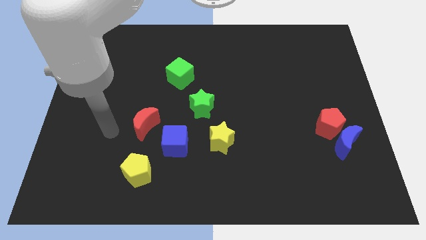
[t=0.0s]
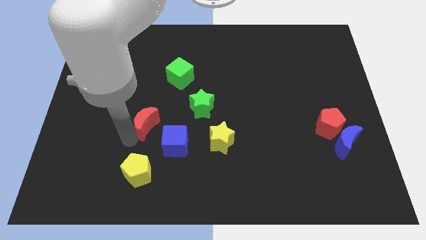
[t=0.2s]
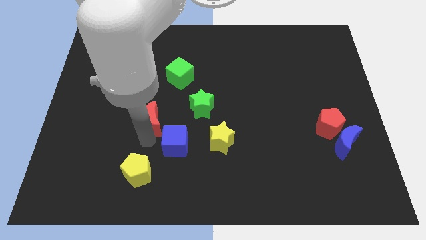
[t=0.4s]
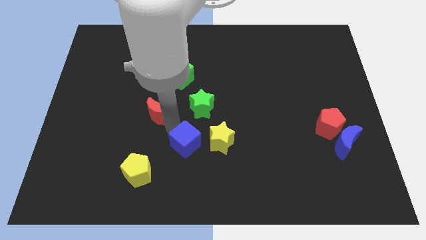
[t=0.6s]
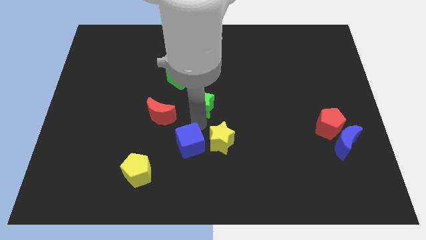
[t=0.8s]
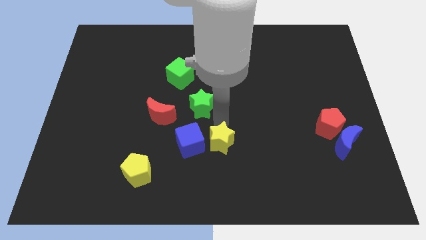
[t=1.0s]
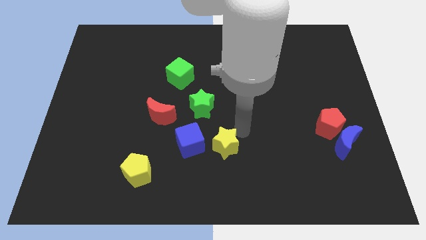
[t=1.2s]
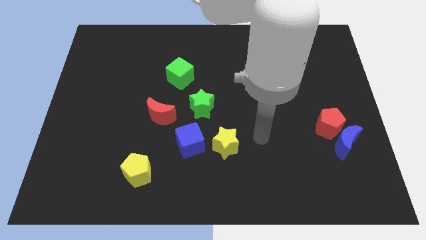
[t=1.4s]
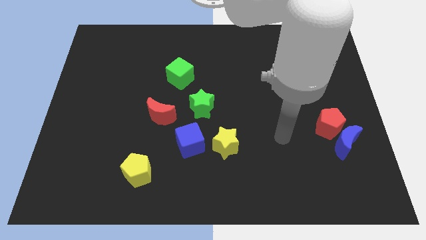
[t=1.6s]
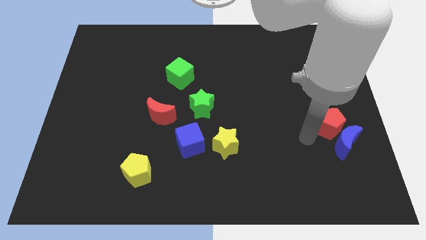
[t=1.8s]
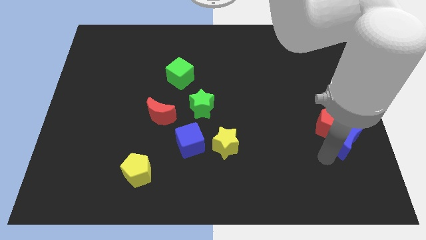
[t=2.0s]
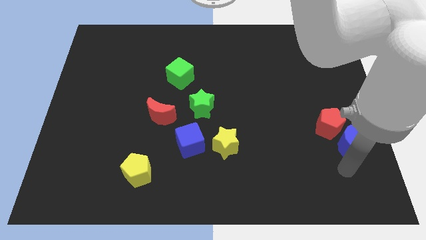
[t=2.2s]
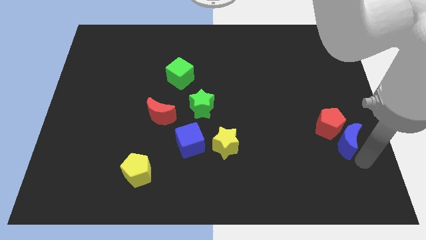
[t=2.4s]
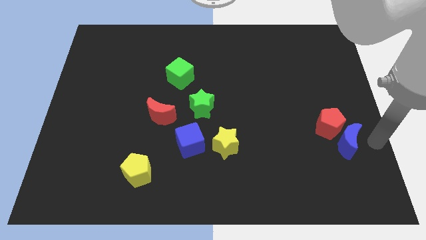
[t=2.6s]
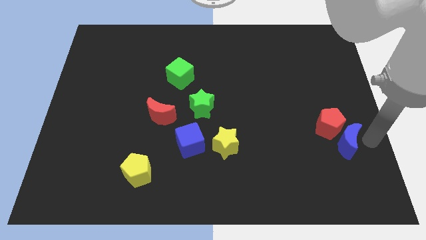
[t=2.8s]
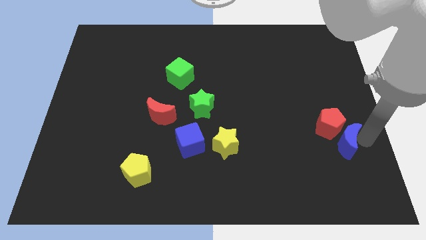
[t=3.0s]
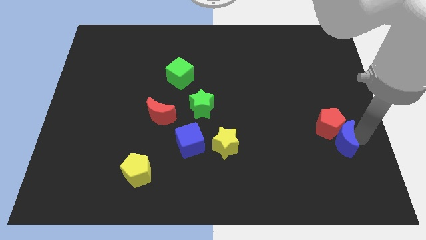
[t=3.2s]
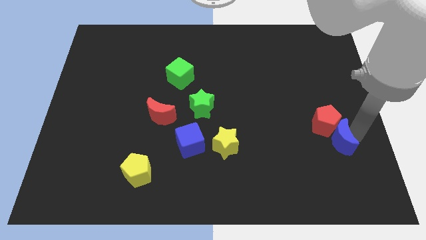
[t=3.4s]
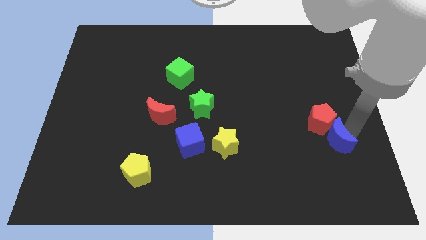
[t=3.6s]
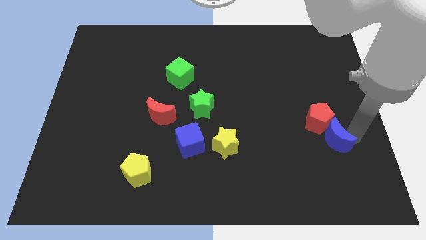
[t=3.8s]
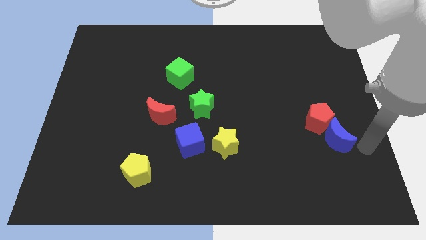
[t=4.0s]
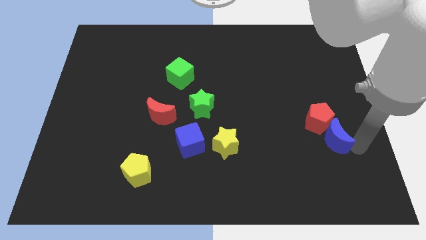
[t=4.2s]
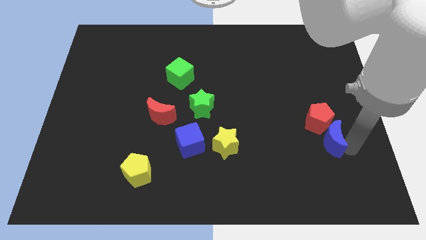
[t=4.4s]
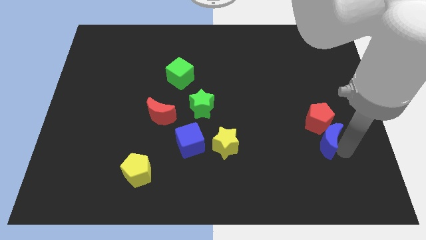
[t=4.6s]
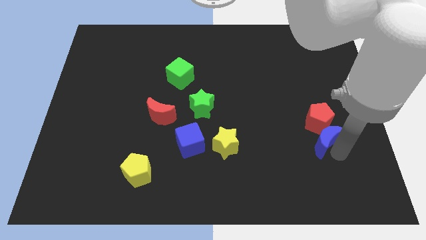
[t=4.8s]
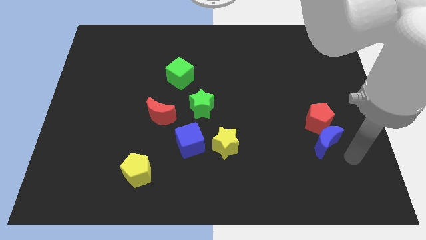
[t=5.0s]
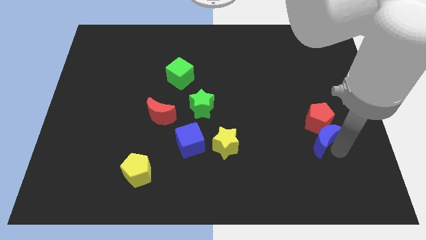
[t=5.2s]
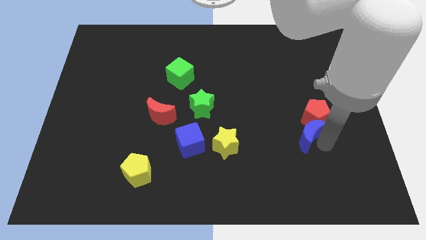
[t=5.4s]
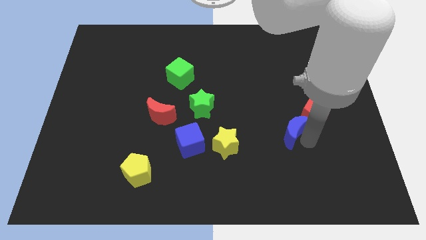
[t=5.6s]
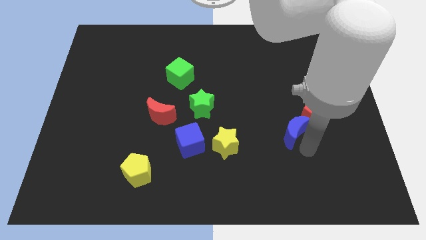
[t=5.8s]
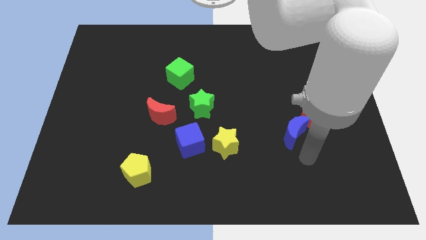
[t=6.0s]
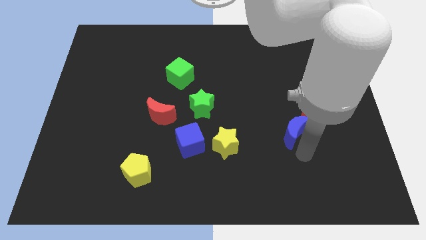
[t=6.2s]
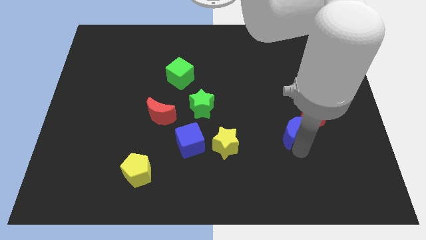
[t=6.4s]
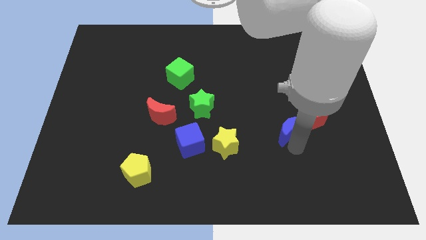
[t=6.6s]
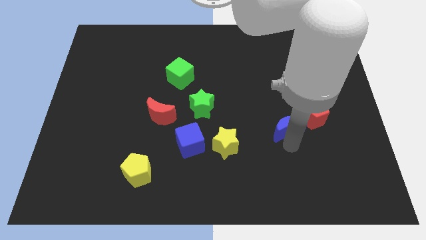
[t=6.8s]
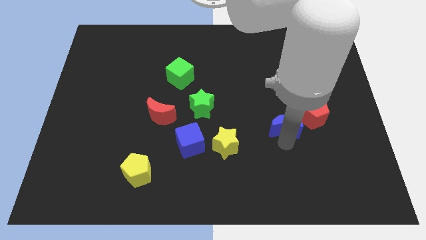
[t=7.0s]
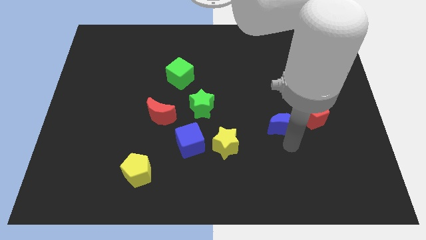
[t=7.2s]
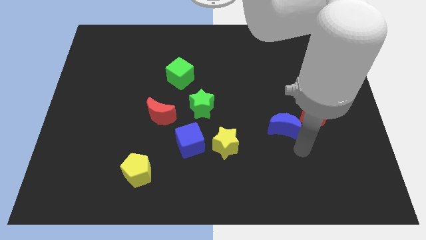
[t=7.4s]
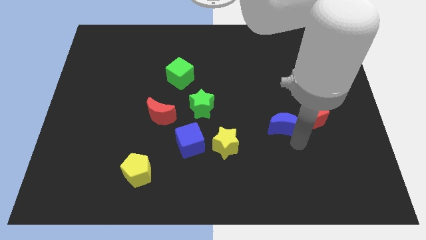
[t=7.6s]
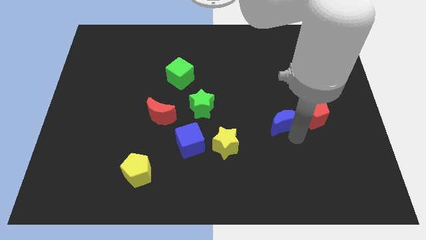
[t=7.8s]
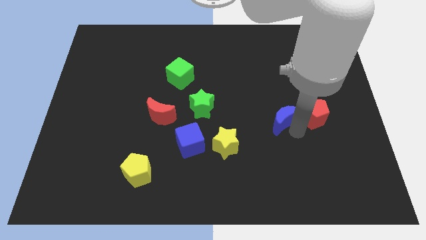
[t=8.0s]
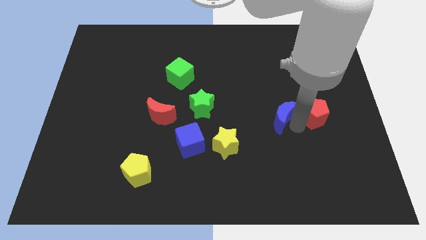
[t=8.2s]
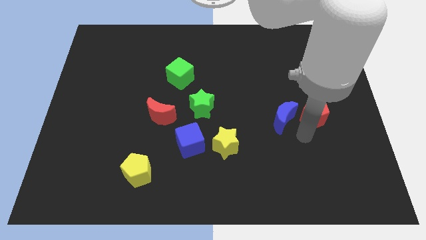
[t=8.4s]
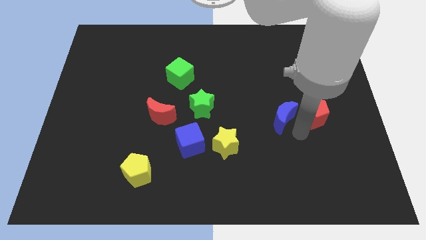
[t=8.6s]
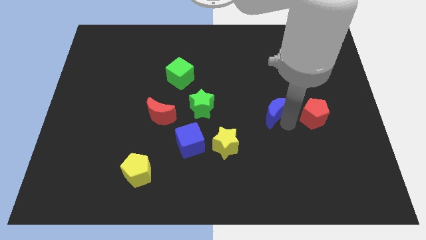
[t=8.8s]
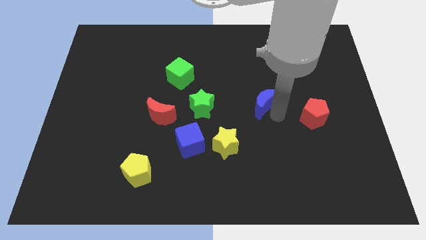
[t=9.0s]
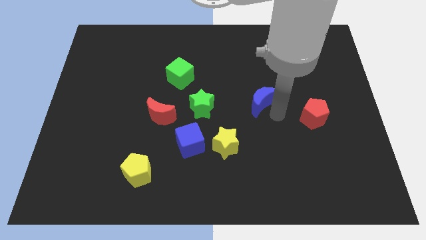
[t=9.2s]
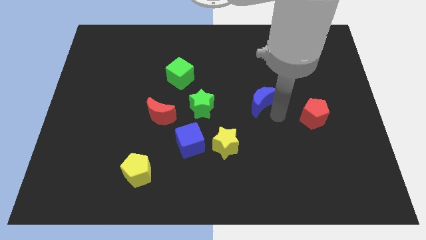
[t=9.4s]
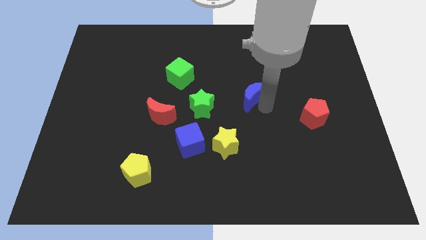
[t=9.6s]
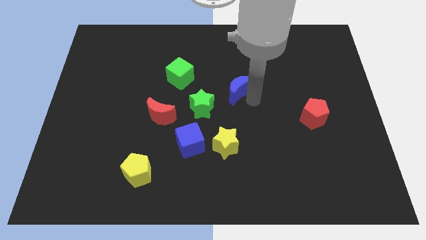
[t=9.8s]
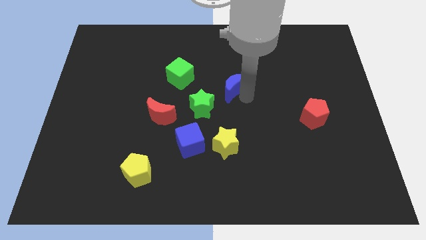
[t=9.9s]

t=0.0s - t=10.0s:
push the blue moon to the right side of the green cube

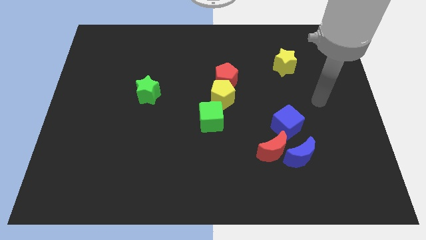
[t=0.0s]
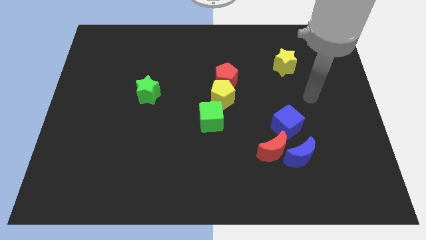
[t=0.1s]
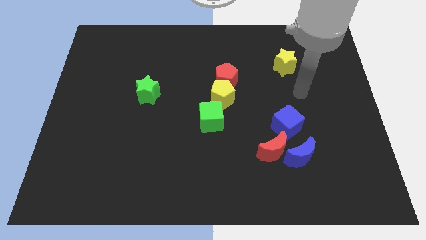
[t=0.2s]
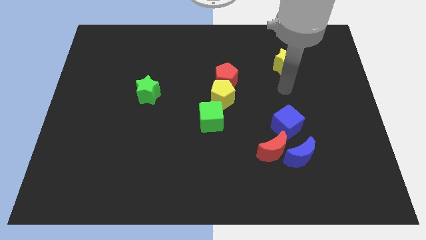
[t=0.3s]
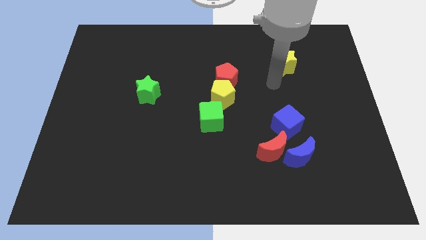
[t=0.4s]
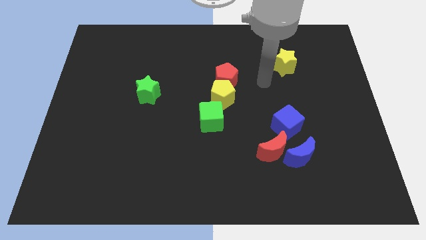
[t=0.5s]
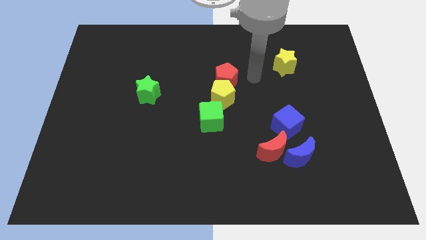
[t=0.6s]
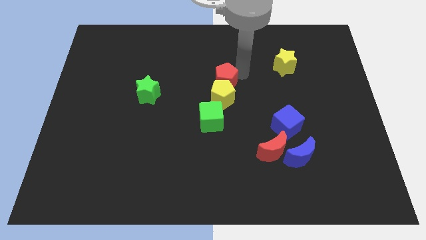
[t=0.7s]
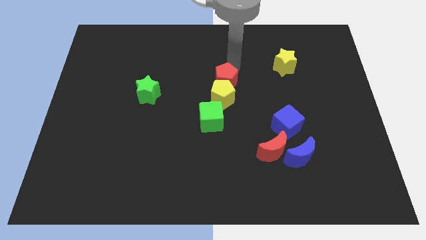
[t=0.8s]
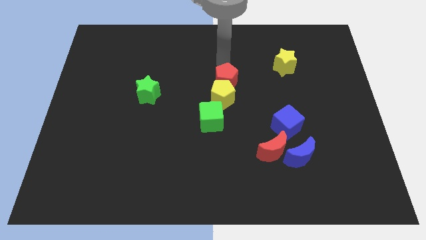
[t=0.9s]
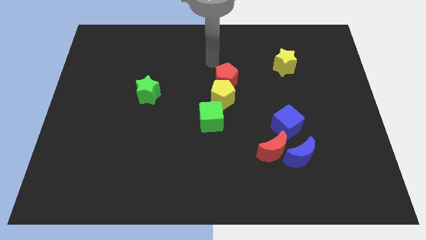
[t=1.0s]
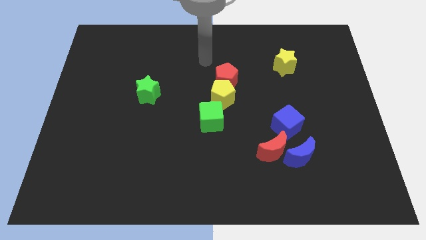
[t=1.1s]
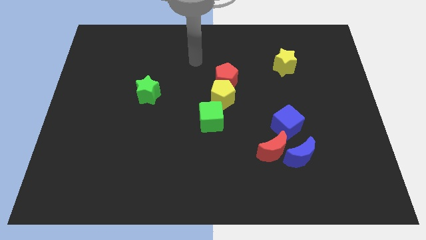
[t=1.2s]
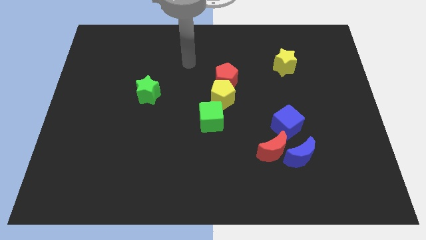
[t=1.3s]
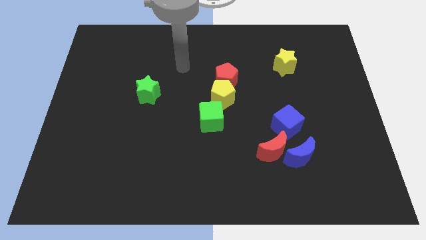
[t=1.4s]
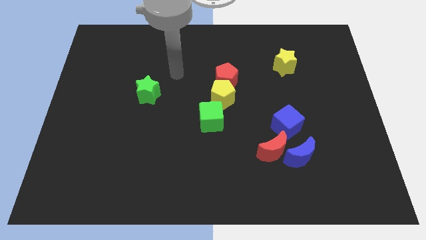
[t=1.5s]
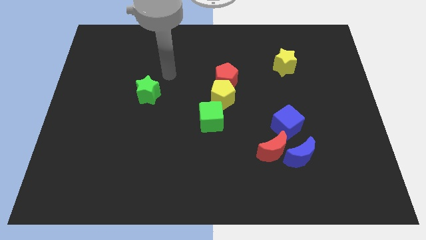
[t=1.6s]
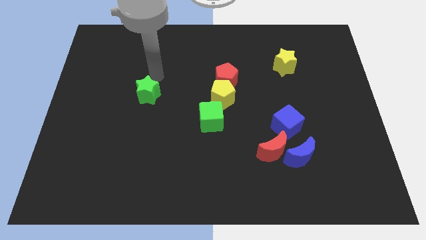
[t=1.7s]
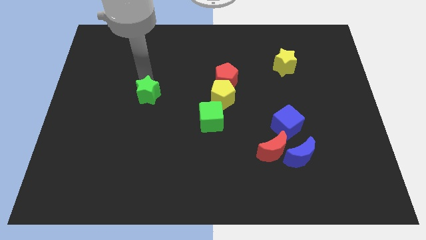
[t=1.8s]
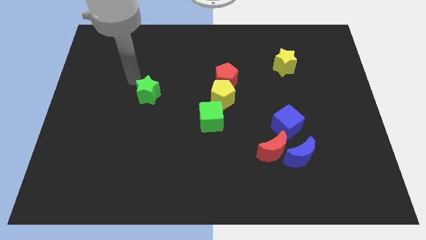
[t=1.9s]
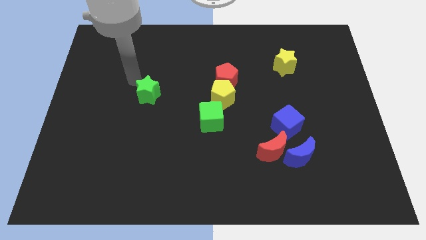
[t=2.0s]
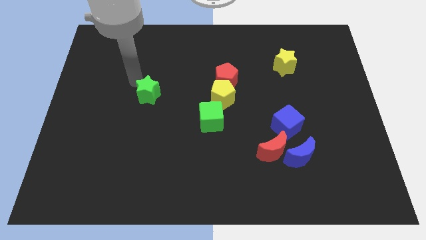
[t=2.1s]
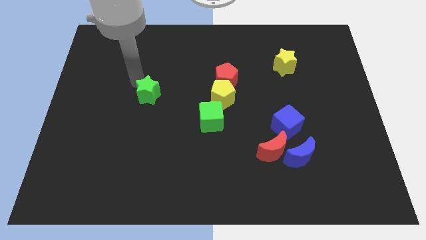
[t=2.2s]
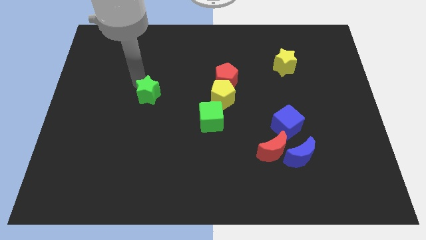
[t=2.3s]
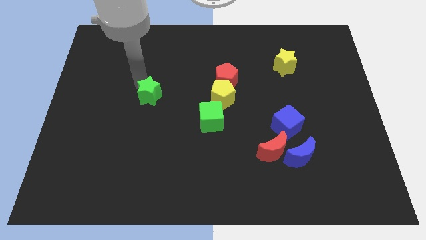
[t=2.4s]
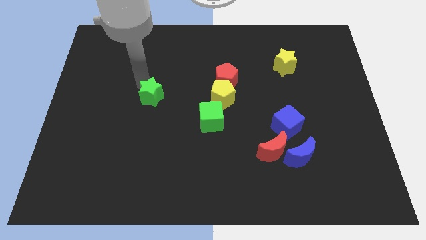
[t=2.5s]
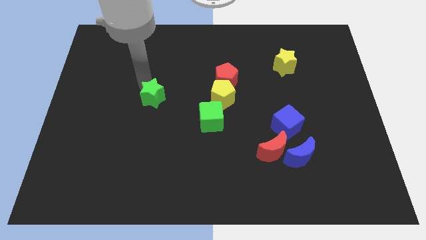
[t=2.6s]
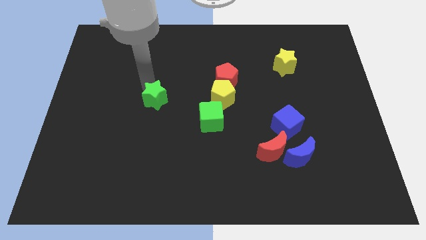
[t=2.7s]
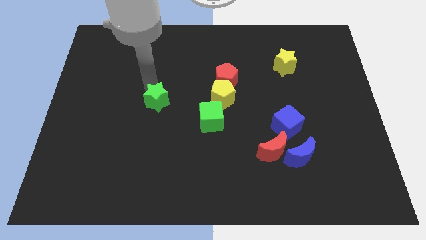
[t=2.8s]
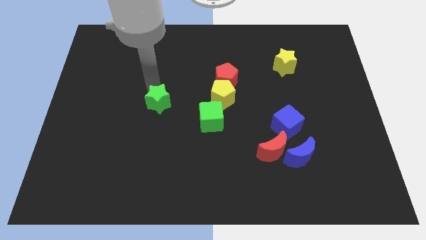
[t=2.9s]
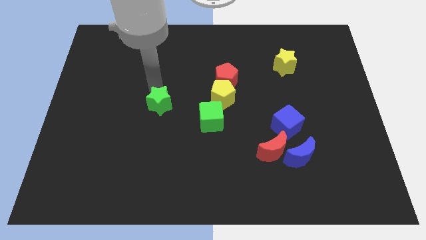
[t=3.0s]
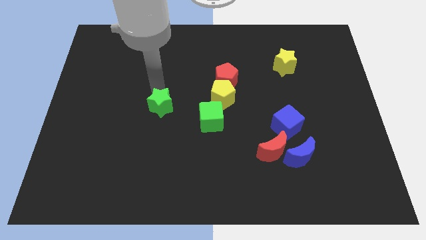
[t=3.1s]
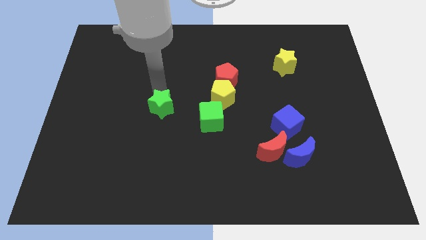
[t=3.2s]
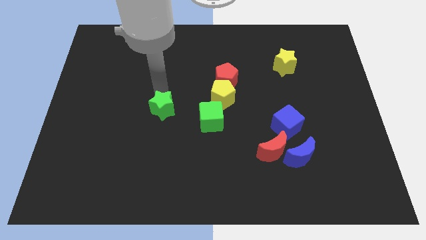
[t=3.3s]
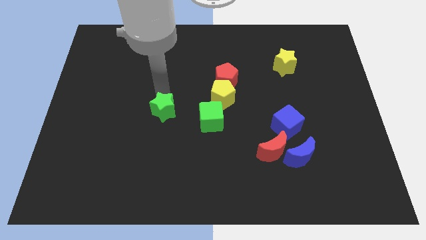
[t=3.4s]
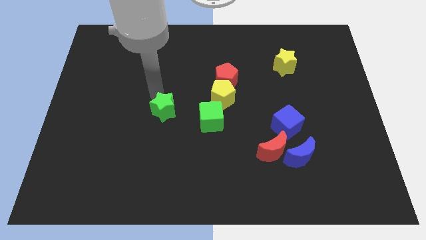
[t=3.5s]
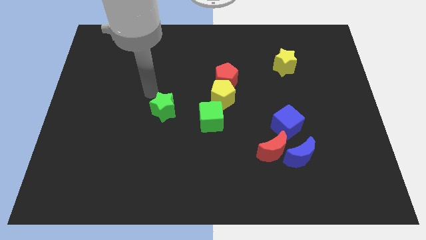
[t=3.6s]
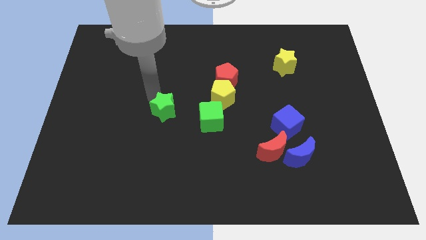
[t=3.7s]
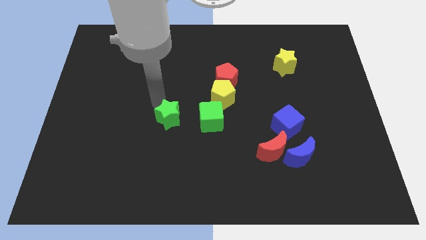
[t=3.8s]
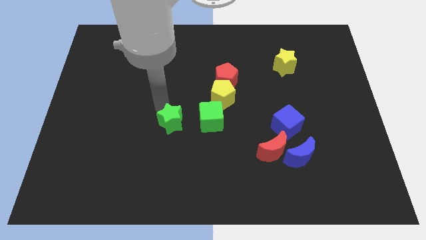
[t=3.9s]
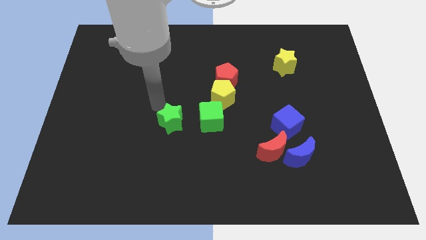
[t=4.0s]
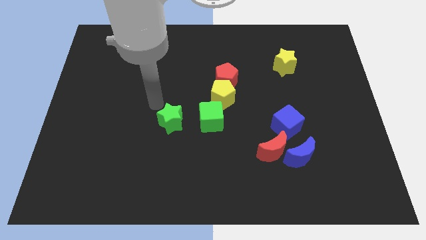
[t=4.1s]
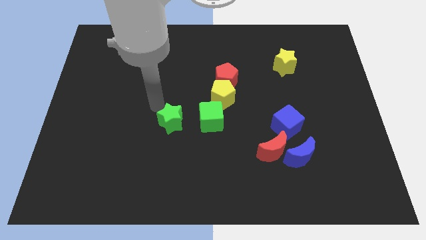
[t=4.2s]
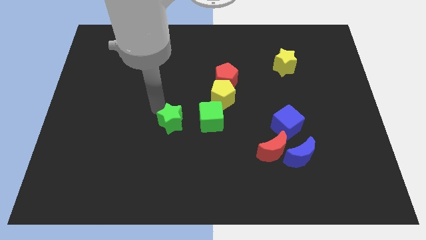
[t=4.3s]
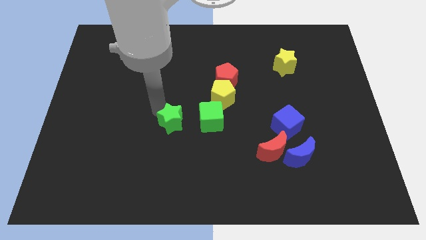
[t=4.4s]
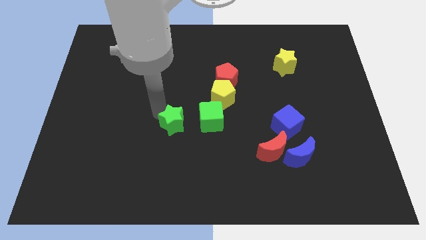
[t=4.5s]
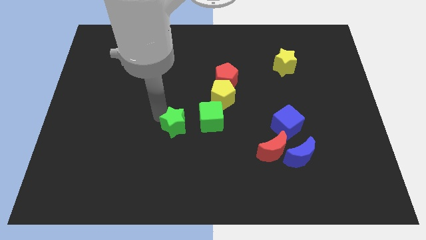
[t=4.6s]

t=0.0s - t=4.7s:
slide the green star to the bottom left of the green cube
